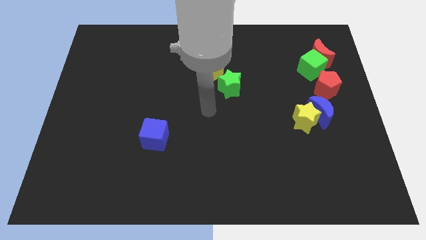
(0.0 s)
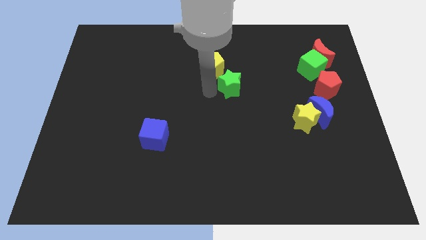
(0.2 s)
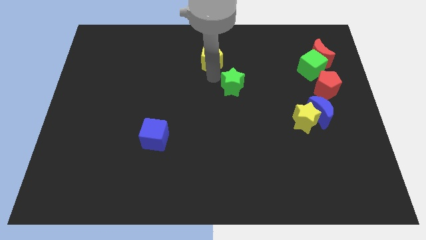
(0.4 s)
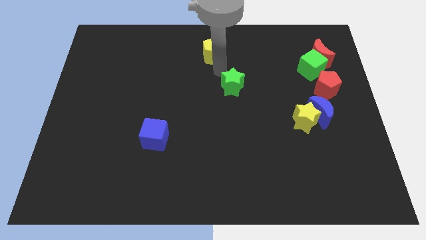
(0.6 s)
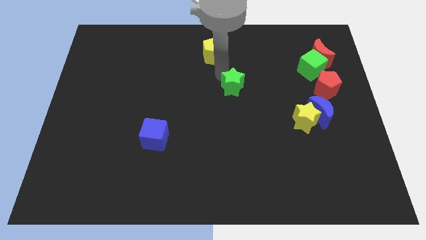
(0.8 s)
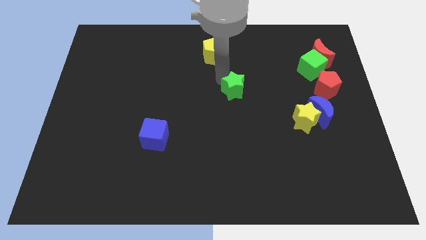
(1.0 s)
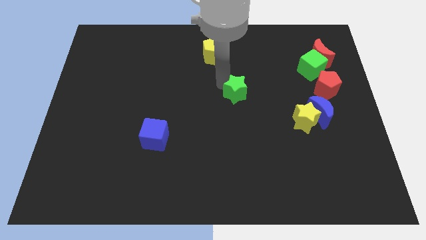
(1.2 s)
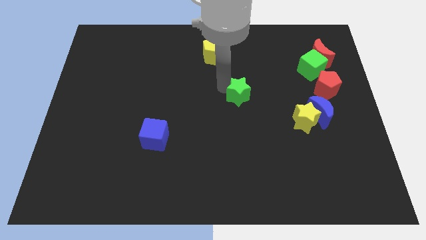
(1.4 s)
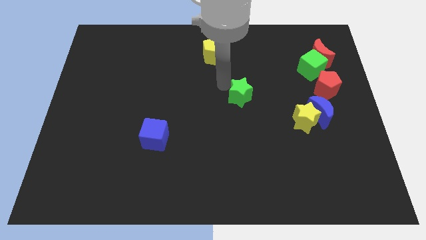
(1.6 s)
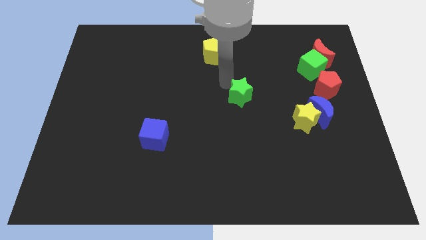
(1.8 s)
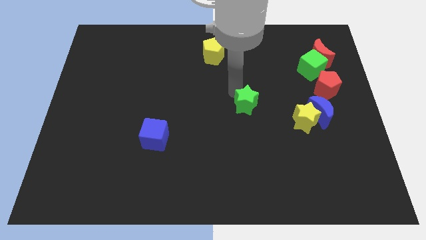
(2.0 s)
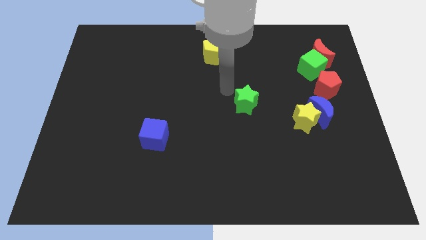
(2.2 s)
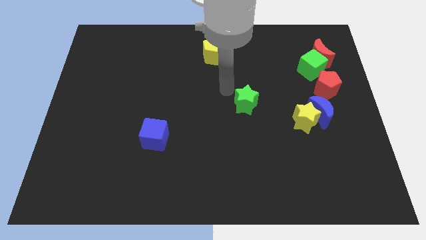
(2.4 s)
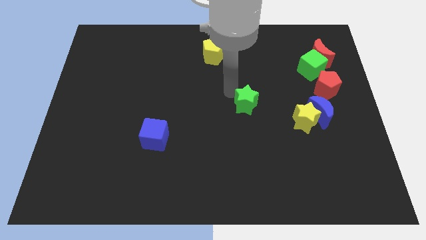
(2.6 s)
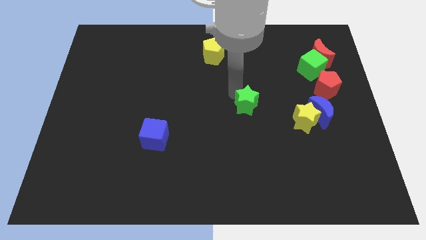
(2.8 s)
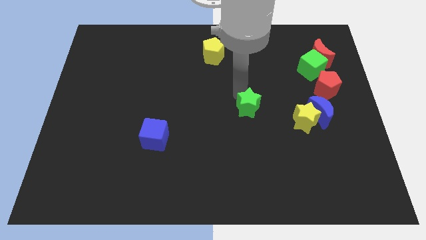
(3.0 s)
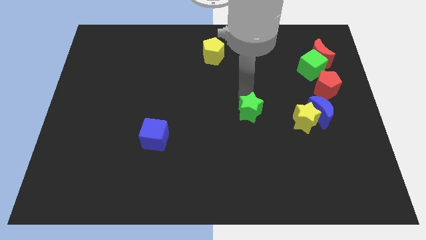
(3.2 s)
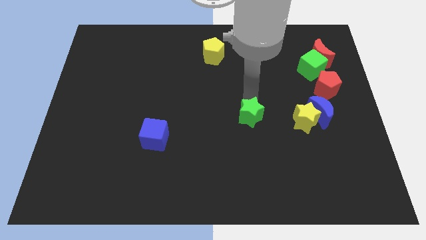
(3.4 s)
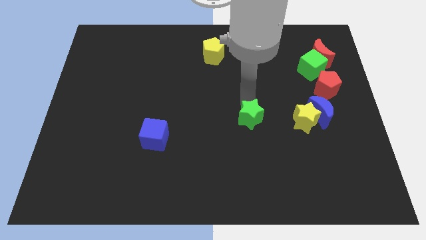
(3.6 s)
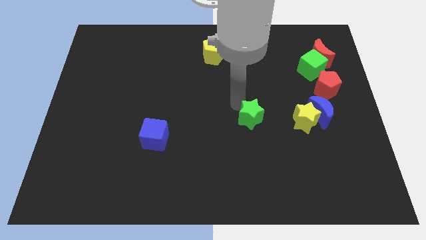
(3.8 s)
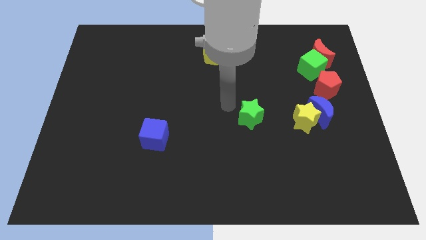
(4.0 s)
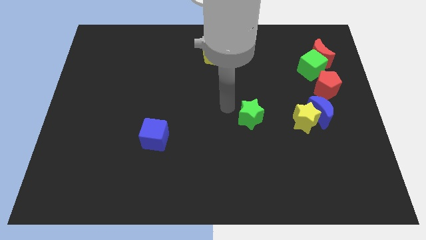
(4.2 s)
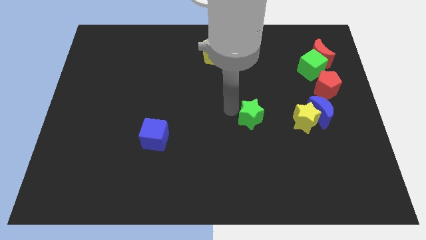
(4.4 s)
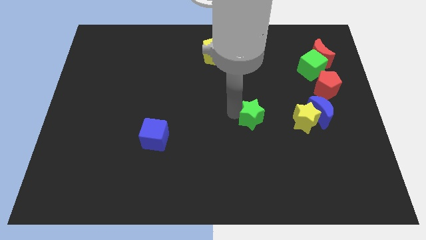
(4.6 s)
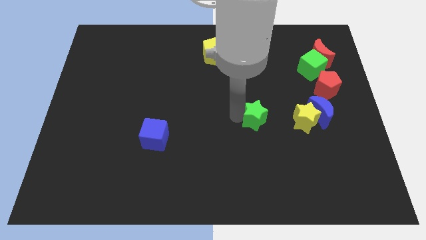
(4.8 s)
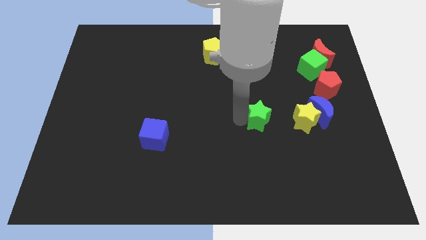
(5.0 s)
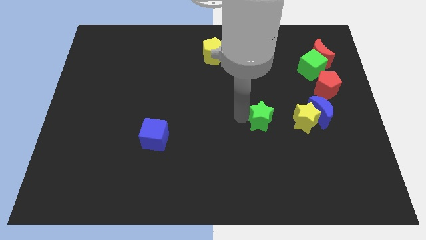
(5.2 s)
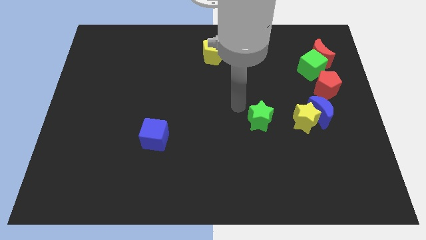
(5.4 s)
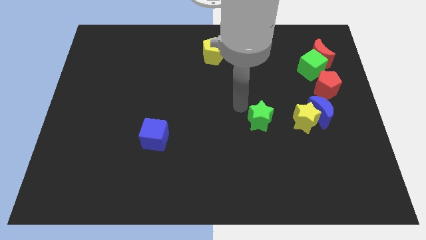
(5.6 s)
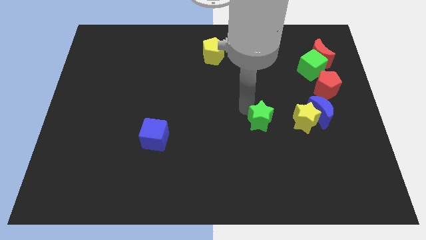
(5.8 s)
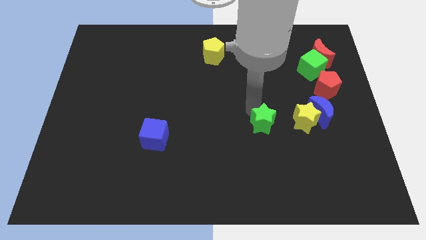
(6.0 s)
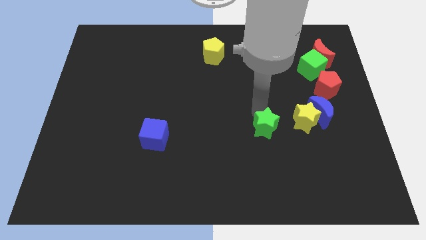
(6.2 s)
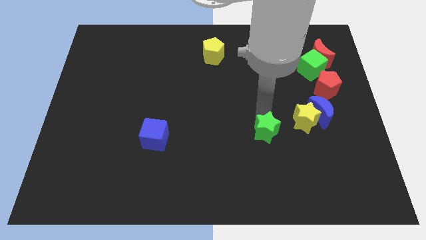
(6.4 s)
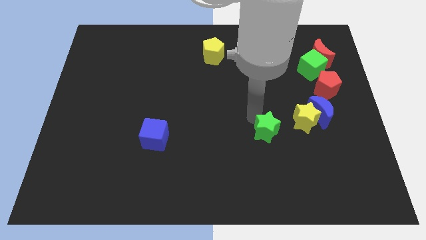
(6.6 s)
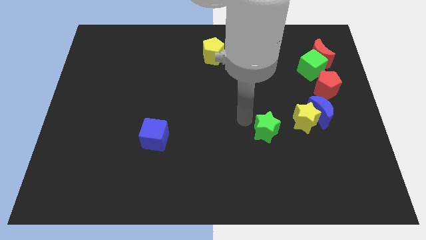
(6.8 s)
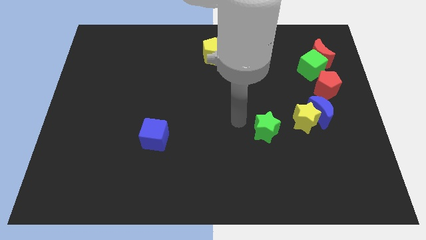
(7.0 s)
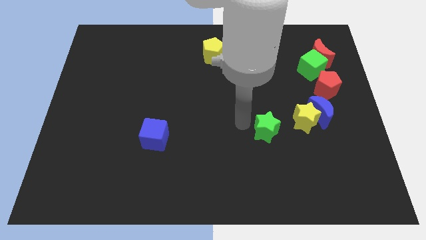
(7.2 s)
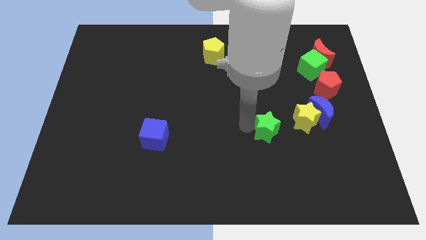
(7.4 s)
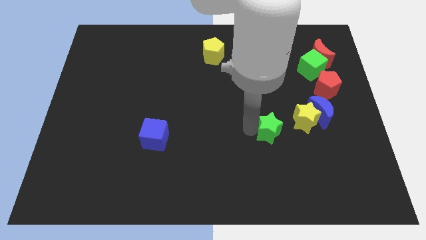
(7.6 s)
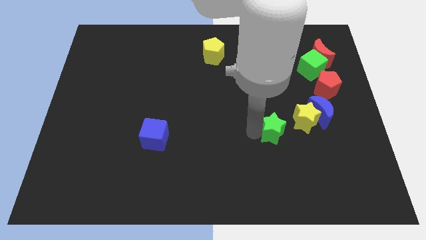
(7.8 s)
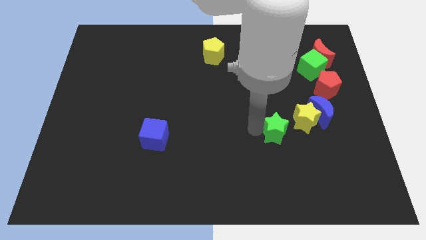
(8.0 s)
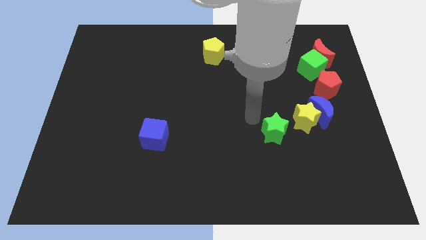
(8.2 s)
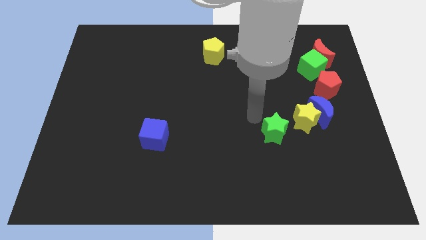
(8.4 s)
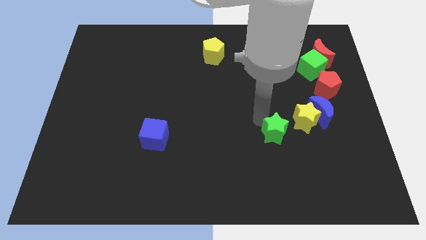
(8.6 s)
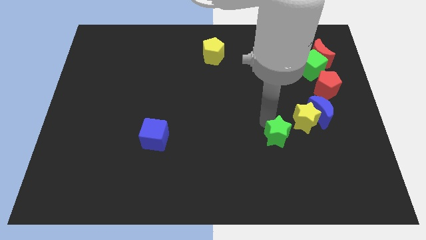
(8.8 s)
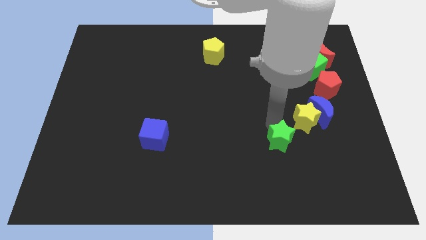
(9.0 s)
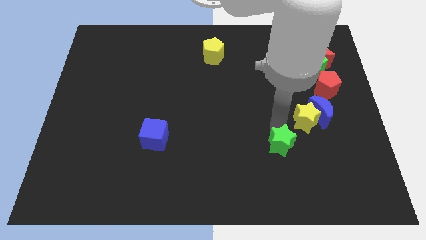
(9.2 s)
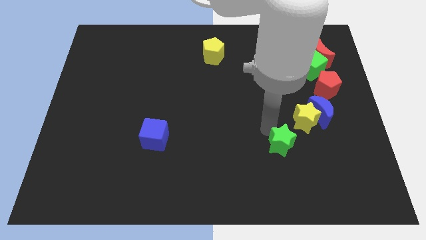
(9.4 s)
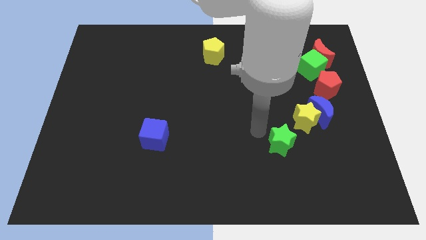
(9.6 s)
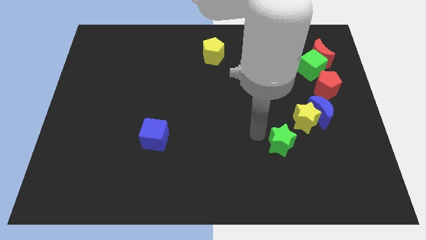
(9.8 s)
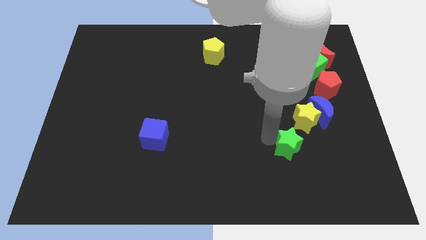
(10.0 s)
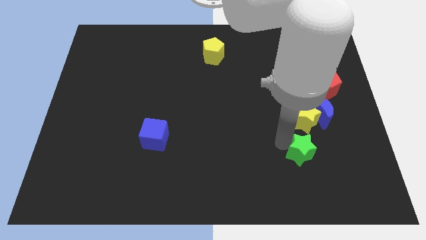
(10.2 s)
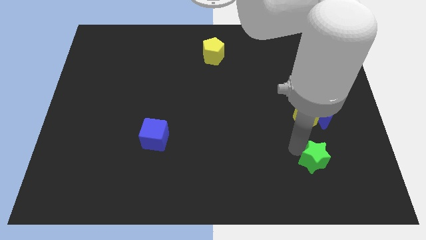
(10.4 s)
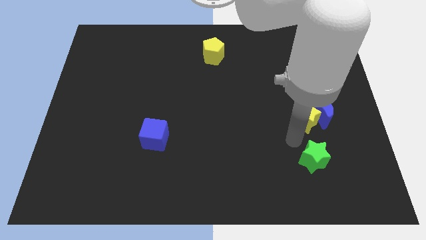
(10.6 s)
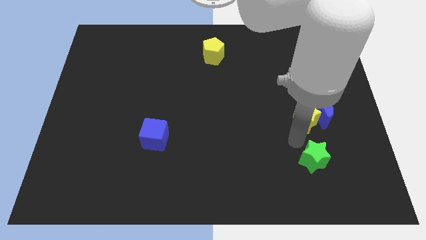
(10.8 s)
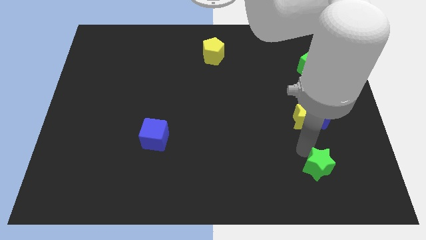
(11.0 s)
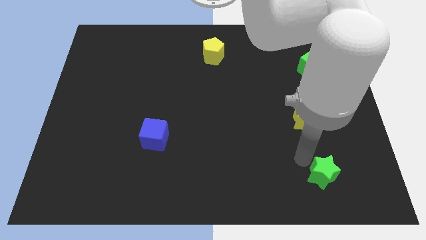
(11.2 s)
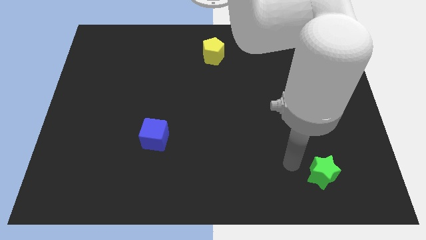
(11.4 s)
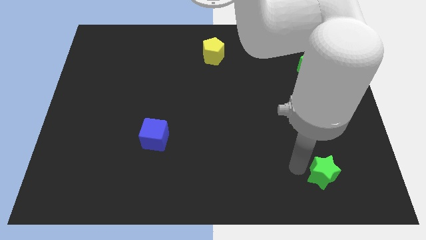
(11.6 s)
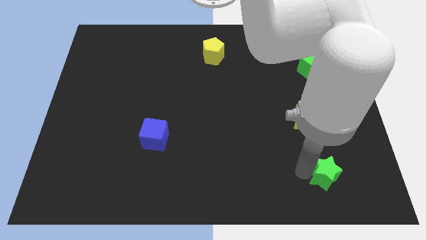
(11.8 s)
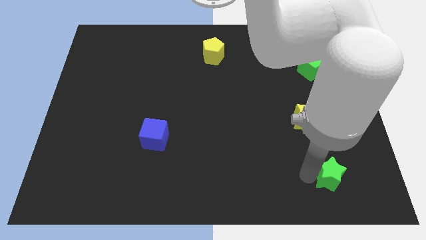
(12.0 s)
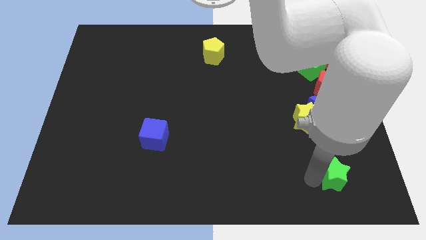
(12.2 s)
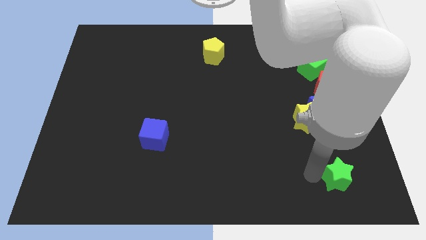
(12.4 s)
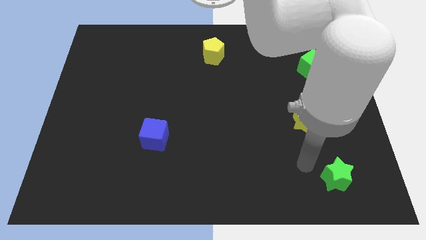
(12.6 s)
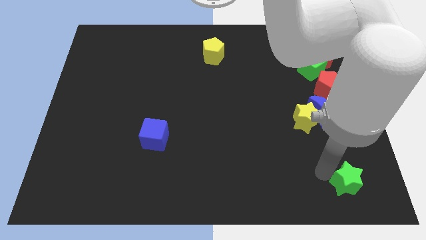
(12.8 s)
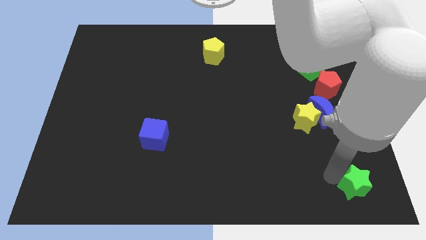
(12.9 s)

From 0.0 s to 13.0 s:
push the green star to the lower right corner

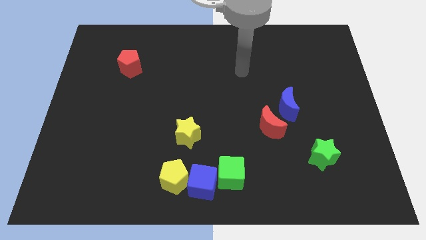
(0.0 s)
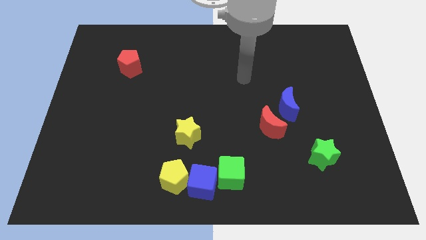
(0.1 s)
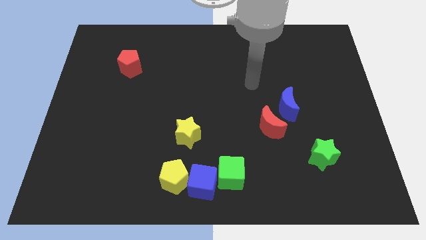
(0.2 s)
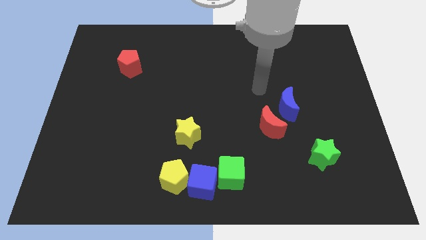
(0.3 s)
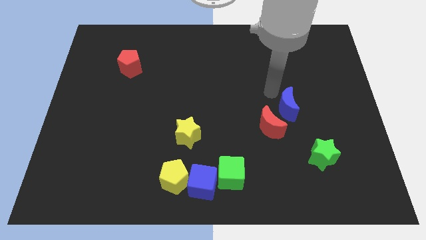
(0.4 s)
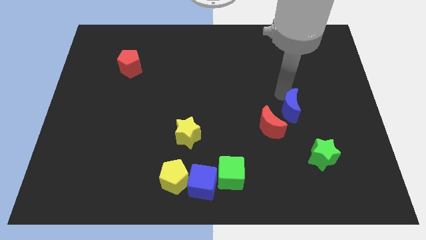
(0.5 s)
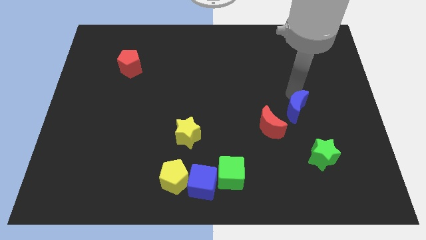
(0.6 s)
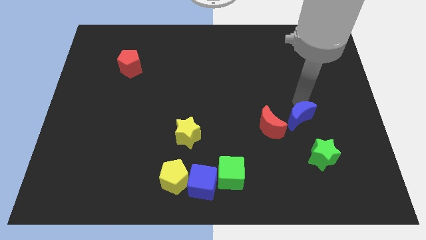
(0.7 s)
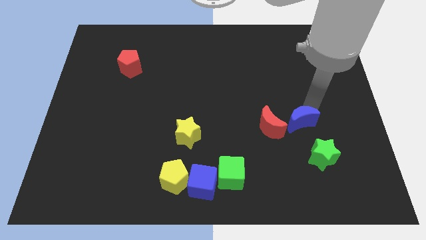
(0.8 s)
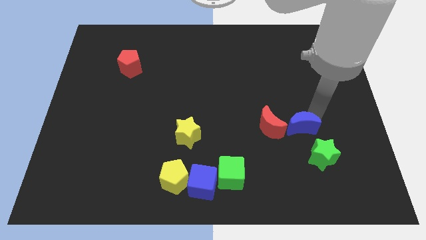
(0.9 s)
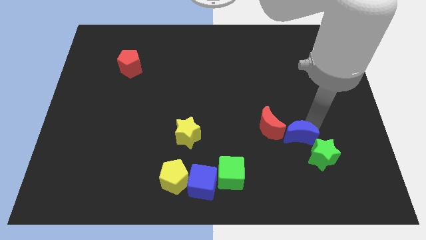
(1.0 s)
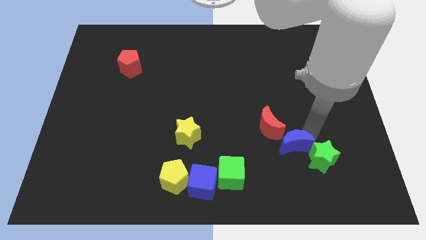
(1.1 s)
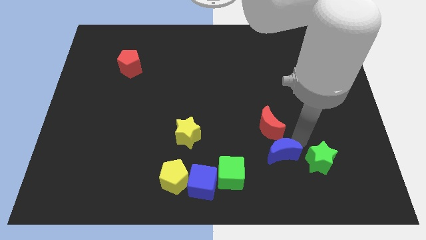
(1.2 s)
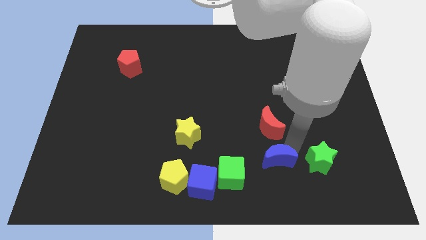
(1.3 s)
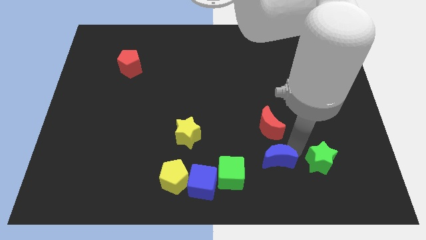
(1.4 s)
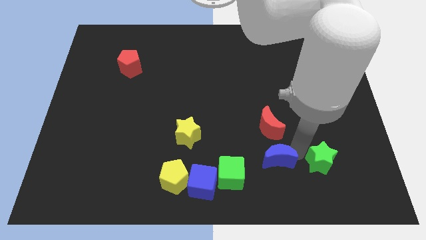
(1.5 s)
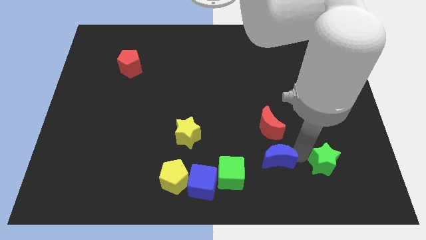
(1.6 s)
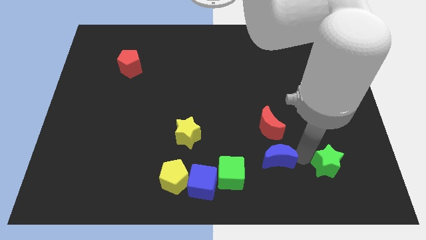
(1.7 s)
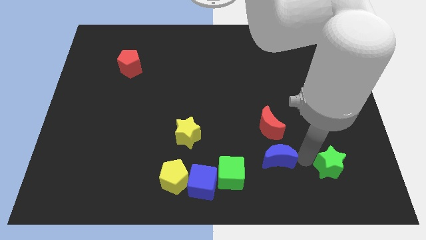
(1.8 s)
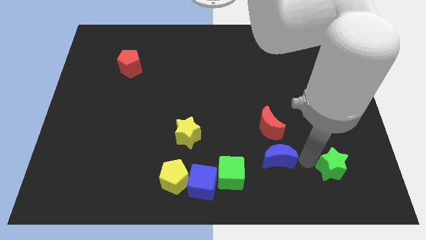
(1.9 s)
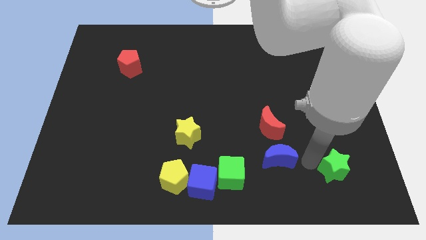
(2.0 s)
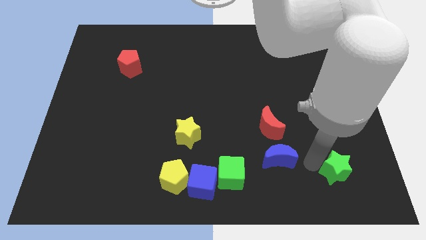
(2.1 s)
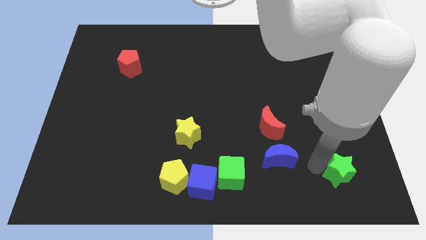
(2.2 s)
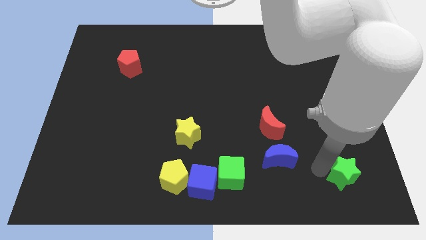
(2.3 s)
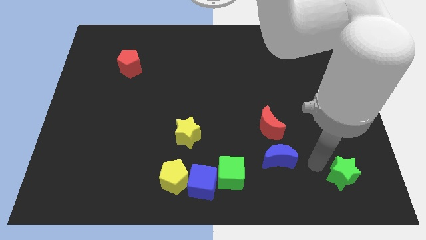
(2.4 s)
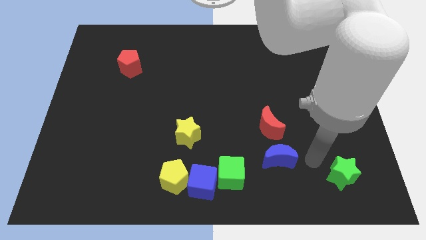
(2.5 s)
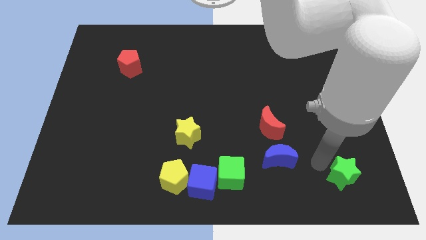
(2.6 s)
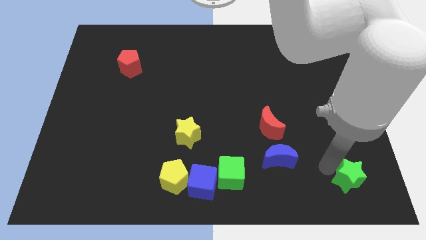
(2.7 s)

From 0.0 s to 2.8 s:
slide the green star to the bottom right corner
